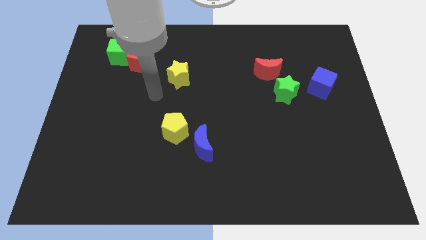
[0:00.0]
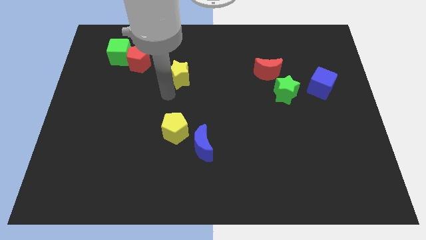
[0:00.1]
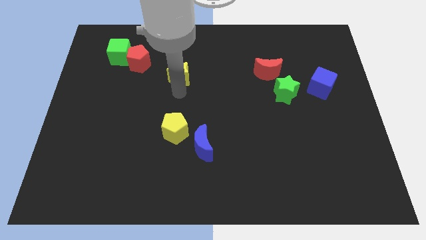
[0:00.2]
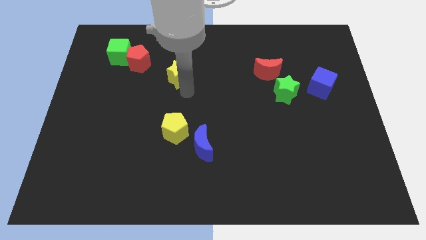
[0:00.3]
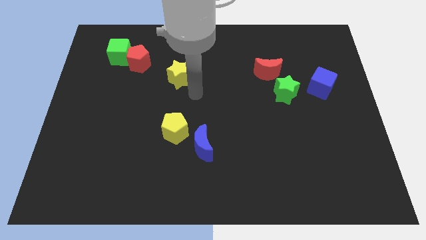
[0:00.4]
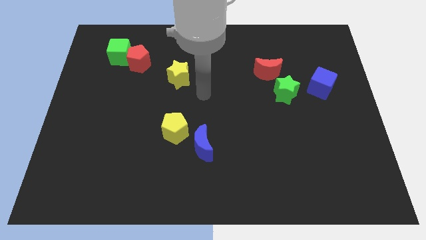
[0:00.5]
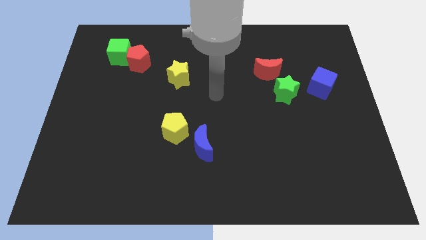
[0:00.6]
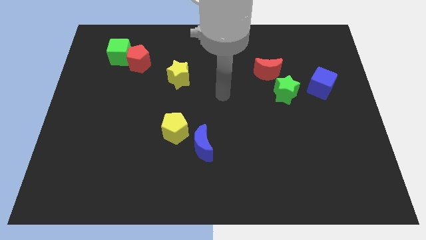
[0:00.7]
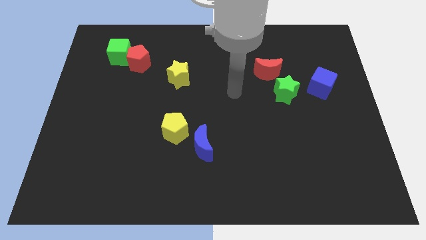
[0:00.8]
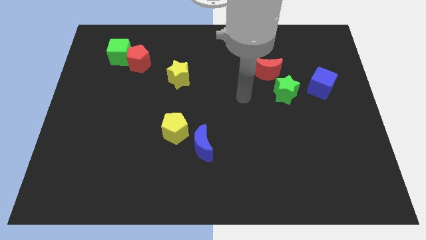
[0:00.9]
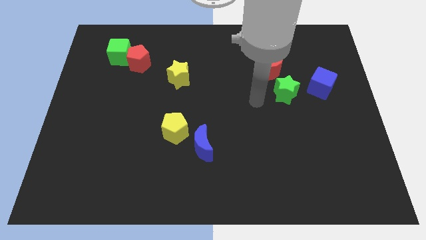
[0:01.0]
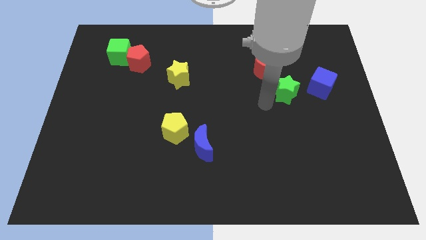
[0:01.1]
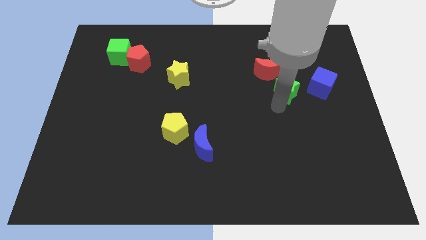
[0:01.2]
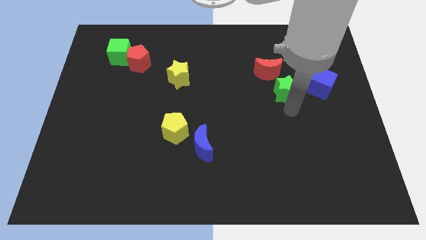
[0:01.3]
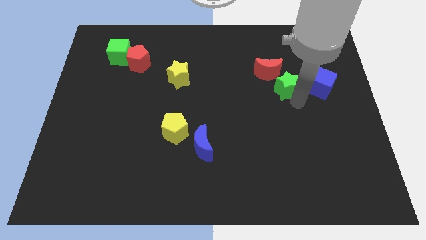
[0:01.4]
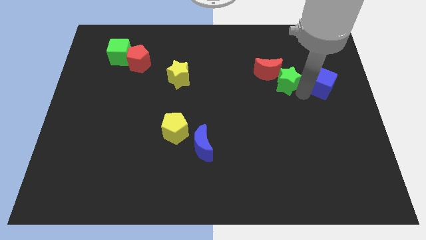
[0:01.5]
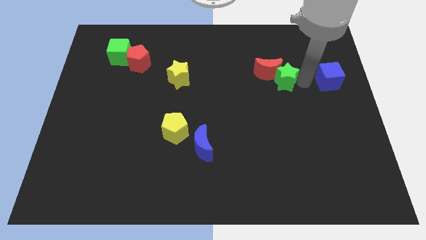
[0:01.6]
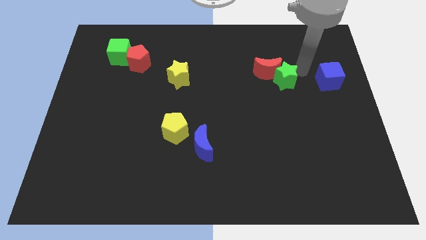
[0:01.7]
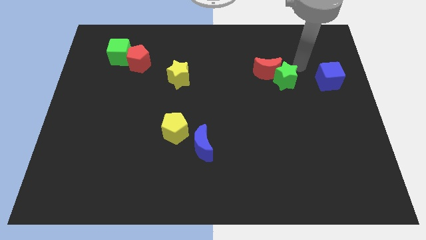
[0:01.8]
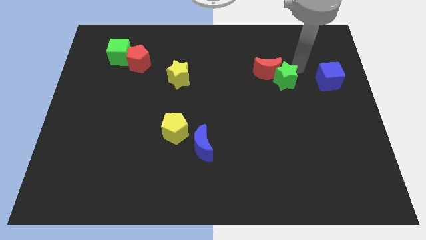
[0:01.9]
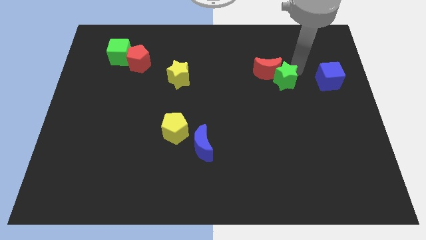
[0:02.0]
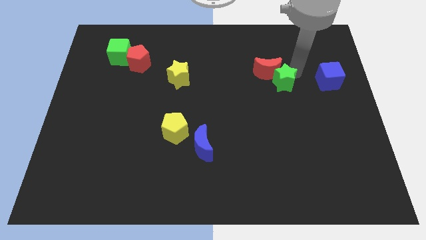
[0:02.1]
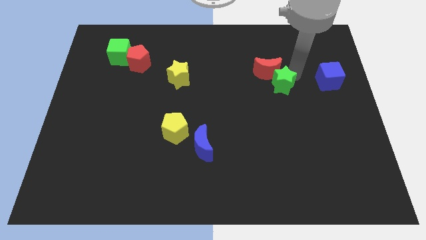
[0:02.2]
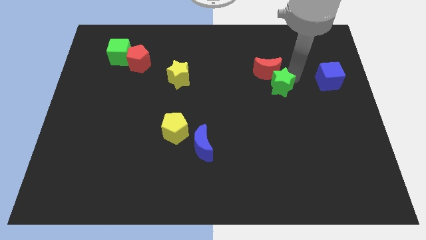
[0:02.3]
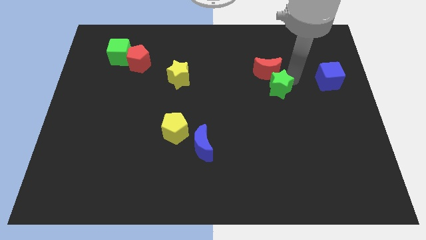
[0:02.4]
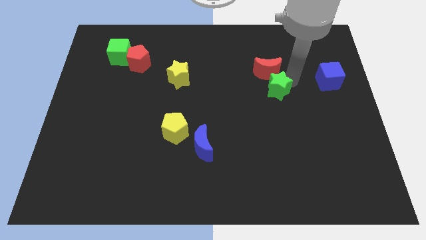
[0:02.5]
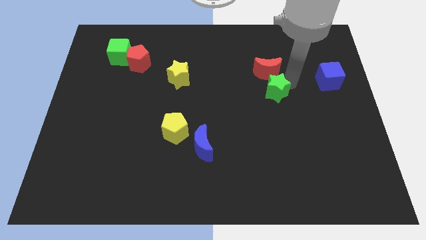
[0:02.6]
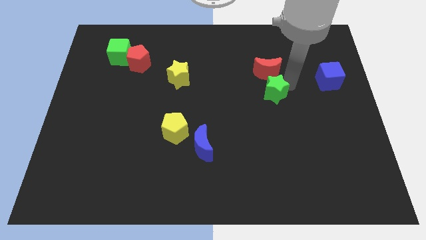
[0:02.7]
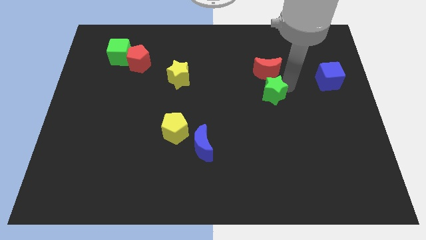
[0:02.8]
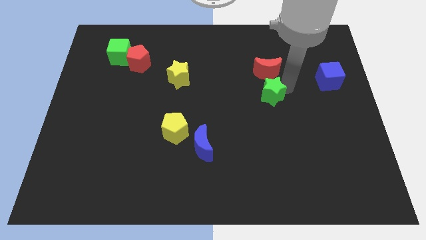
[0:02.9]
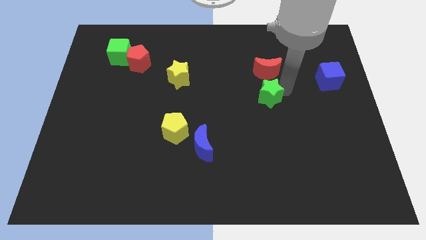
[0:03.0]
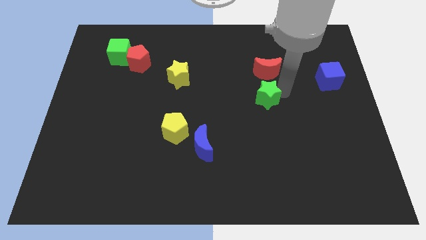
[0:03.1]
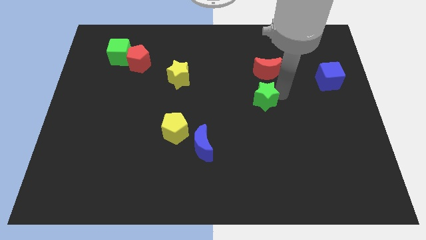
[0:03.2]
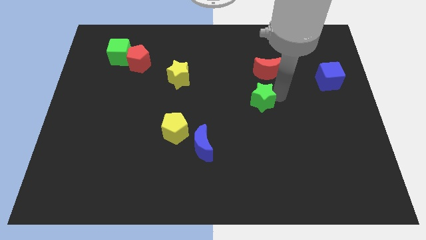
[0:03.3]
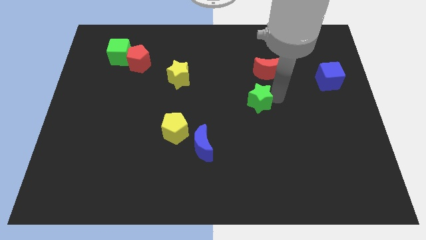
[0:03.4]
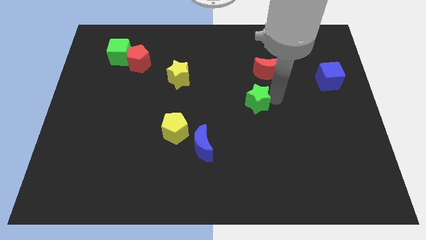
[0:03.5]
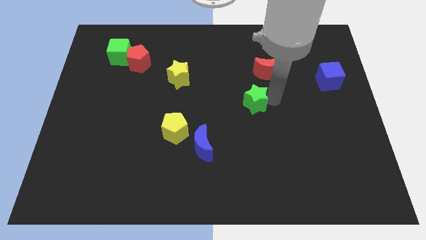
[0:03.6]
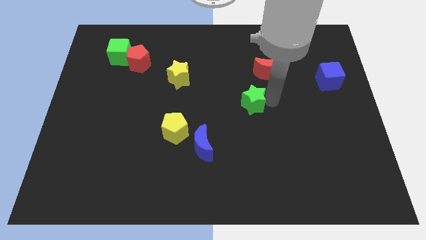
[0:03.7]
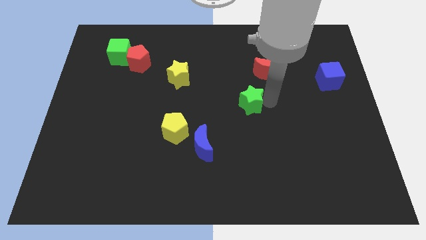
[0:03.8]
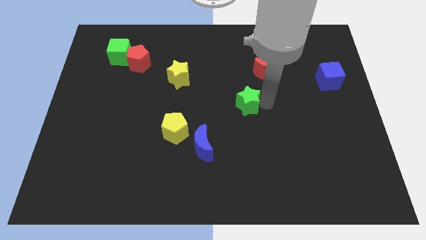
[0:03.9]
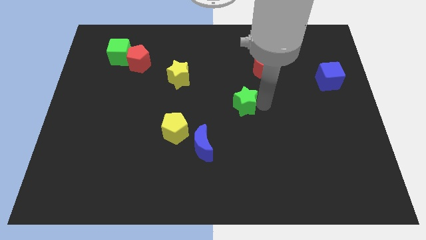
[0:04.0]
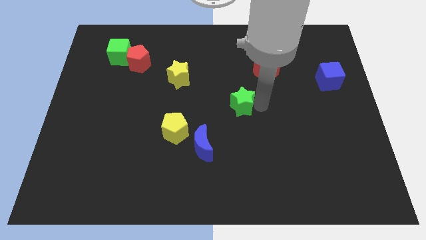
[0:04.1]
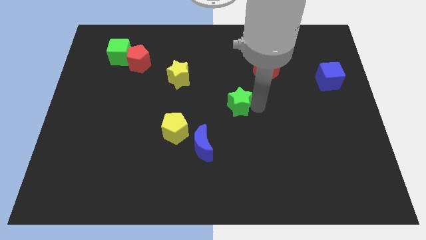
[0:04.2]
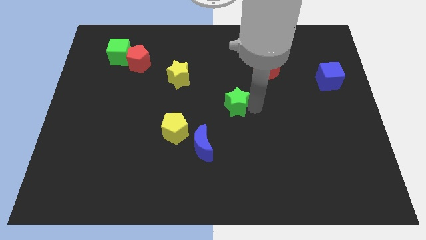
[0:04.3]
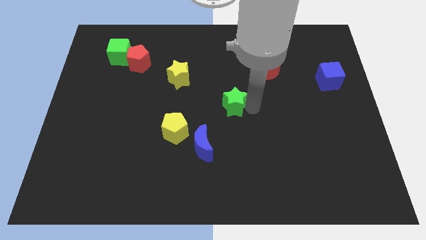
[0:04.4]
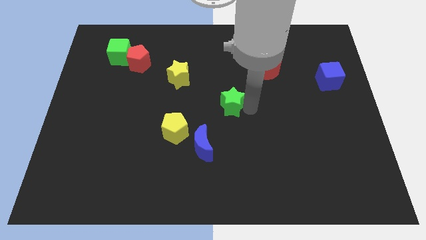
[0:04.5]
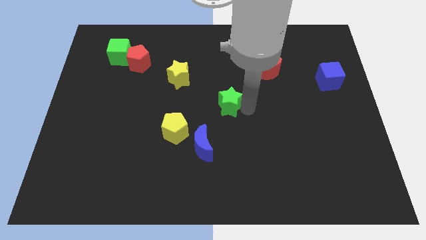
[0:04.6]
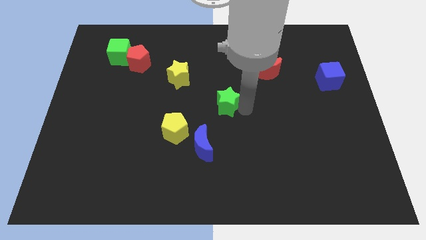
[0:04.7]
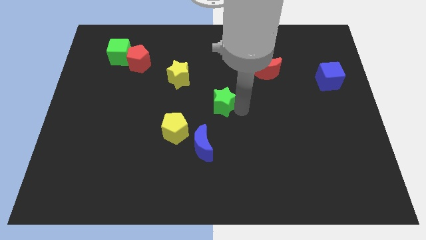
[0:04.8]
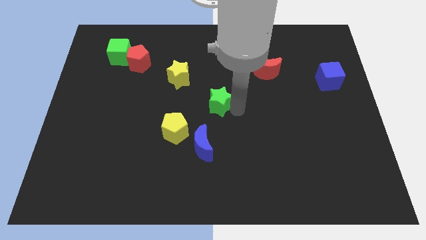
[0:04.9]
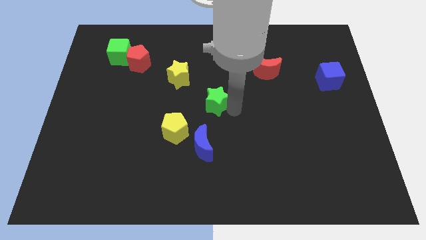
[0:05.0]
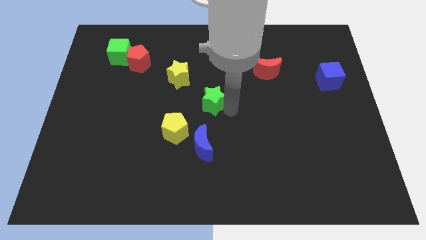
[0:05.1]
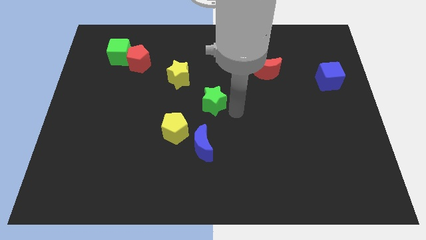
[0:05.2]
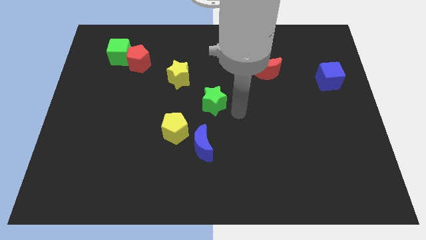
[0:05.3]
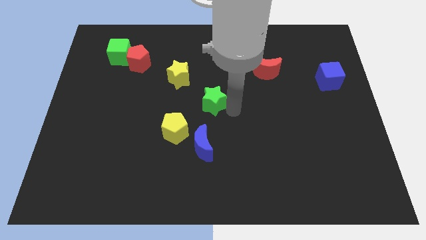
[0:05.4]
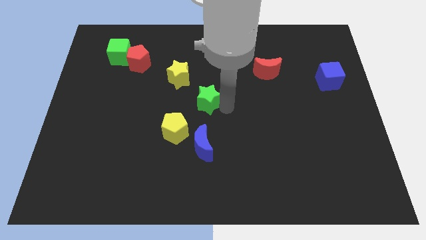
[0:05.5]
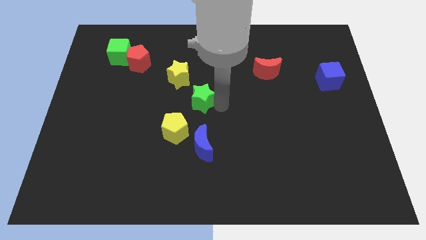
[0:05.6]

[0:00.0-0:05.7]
push the green star to the left

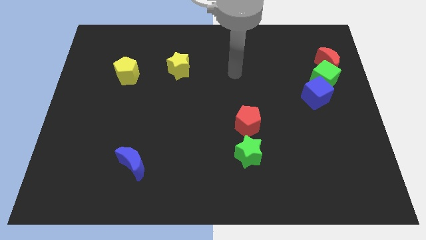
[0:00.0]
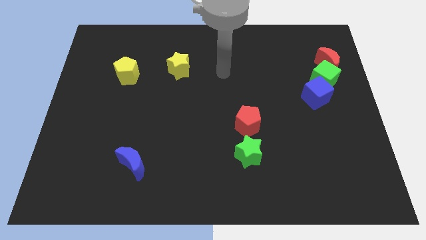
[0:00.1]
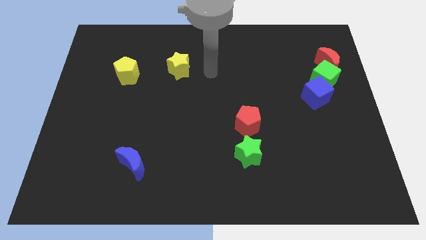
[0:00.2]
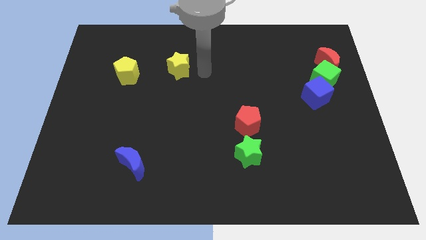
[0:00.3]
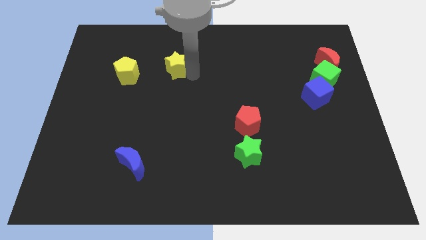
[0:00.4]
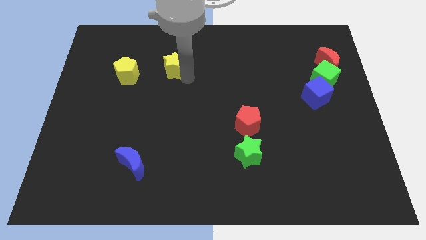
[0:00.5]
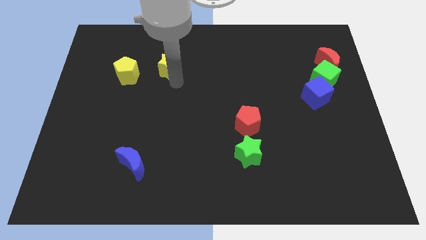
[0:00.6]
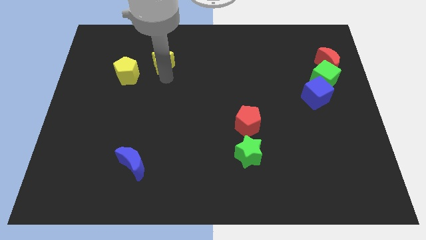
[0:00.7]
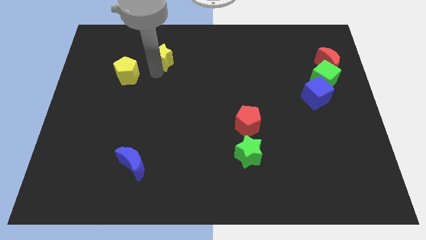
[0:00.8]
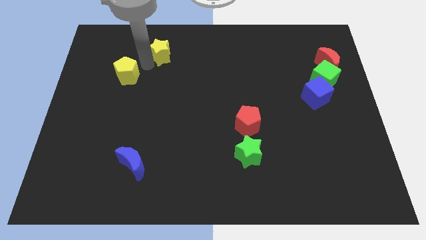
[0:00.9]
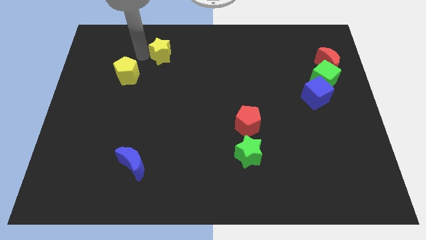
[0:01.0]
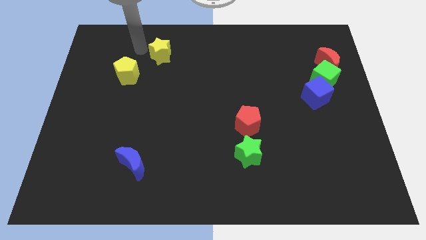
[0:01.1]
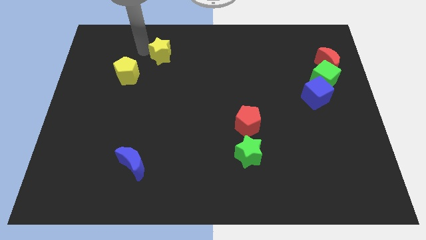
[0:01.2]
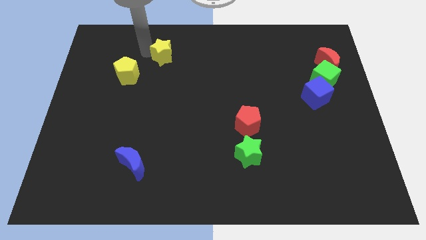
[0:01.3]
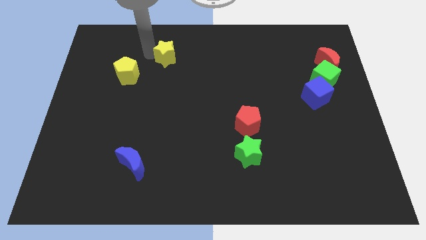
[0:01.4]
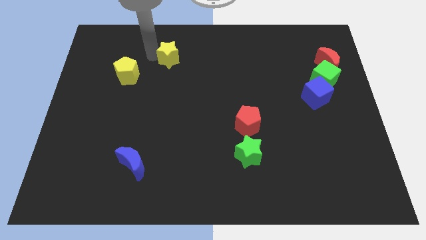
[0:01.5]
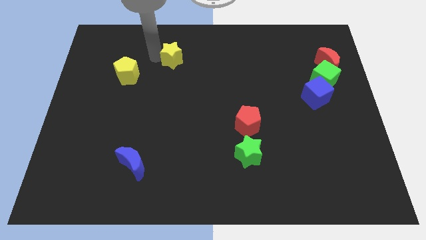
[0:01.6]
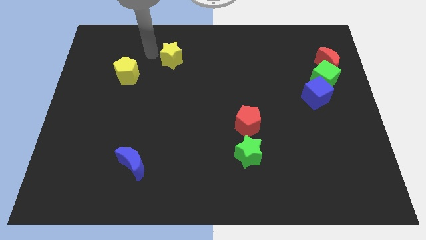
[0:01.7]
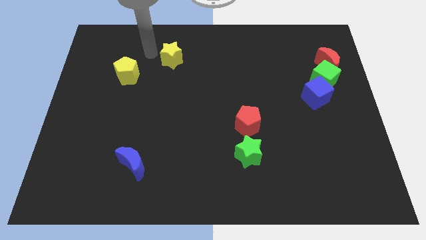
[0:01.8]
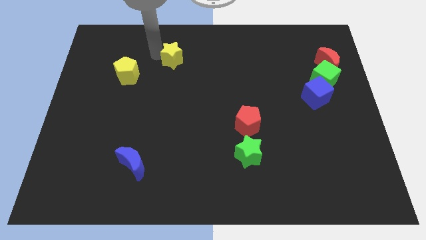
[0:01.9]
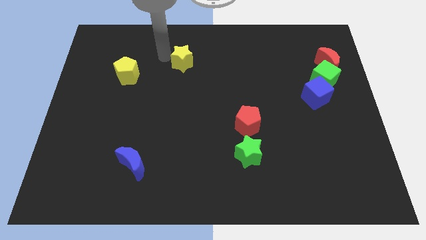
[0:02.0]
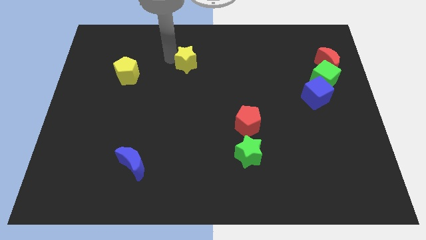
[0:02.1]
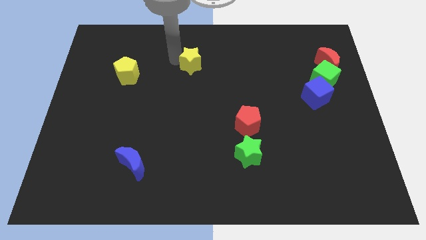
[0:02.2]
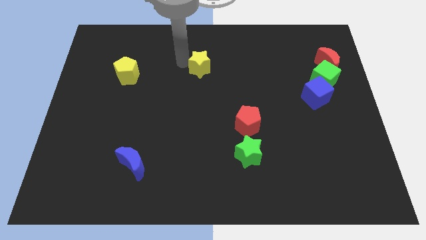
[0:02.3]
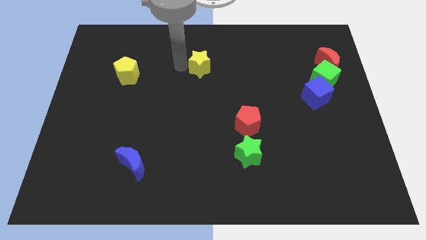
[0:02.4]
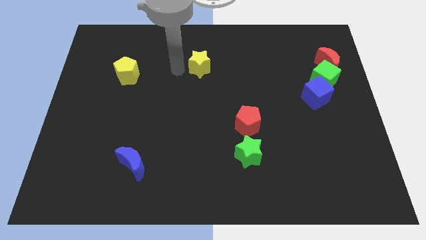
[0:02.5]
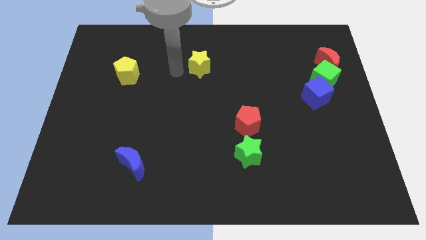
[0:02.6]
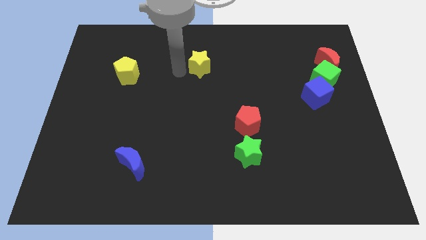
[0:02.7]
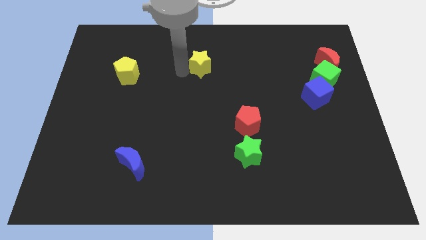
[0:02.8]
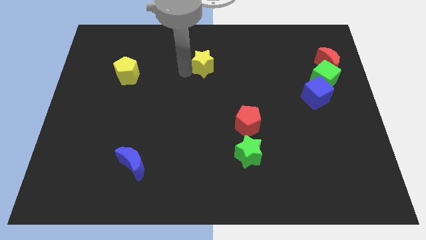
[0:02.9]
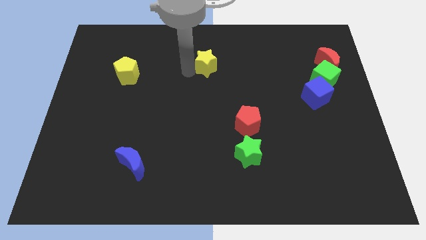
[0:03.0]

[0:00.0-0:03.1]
slightly slide the yellow star to the right
